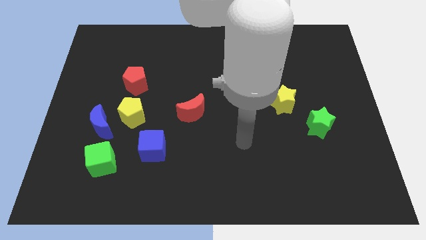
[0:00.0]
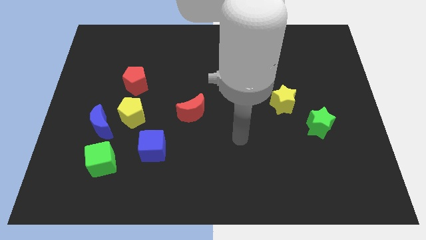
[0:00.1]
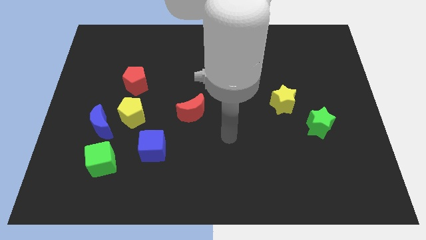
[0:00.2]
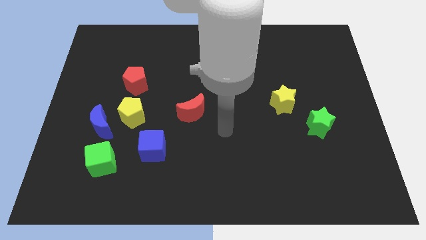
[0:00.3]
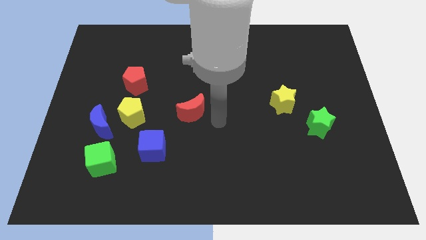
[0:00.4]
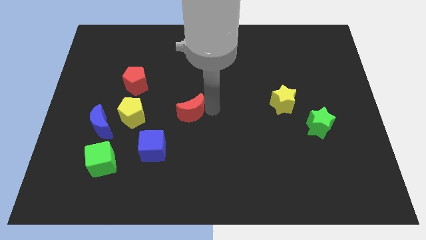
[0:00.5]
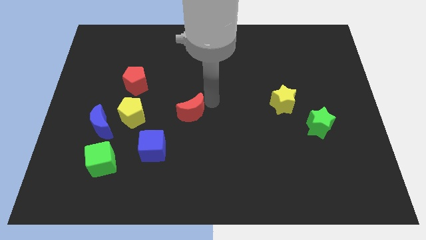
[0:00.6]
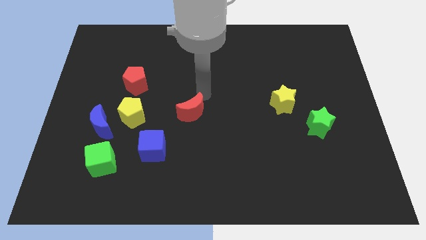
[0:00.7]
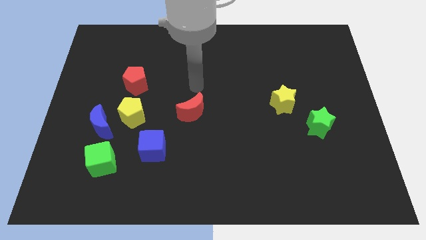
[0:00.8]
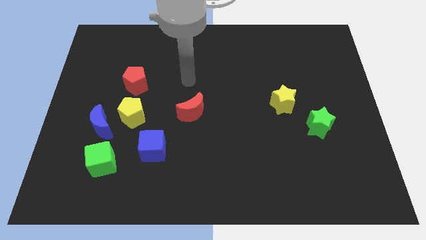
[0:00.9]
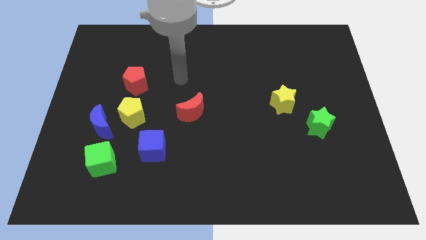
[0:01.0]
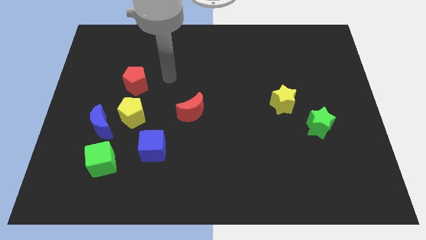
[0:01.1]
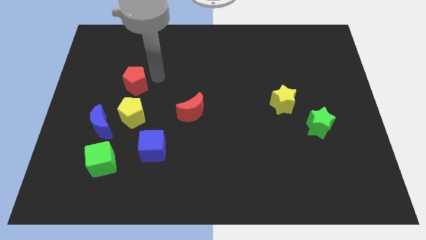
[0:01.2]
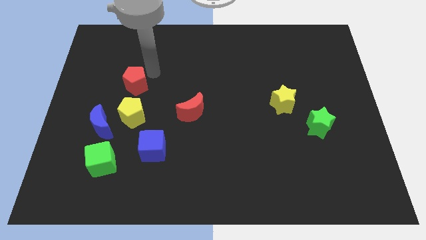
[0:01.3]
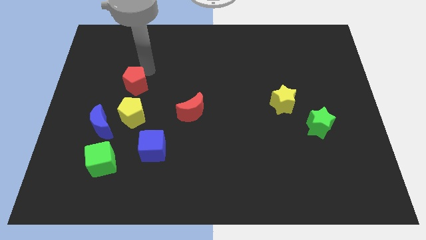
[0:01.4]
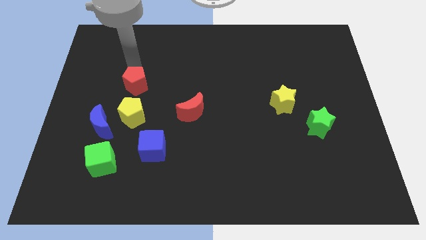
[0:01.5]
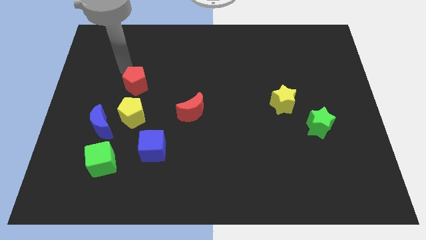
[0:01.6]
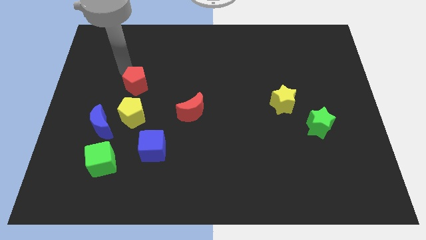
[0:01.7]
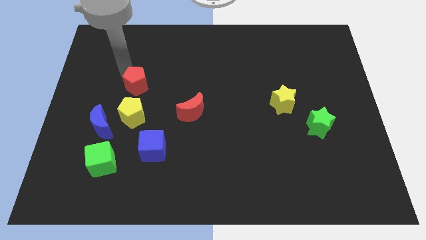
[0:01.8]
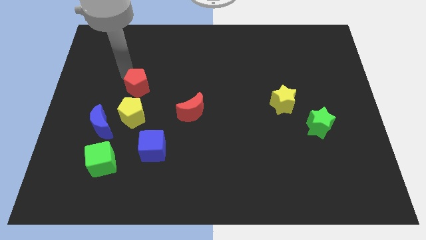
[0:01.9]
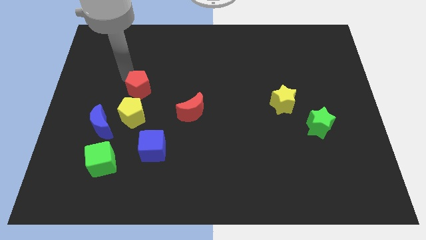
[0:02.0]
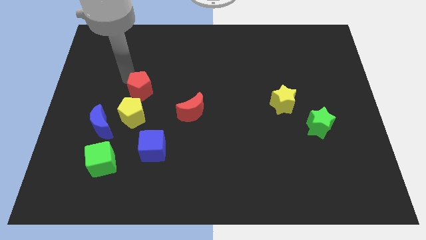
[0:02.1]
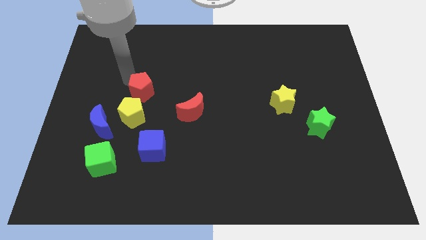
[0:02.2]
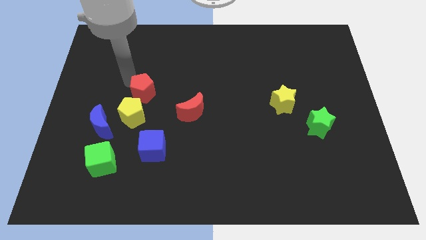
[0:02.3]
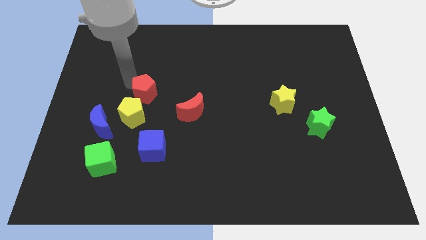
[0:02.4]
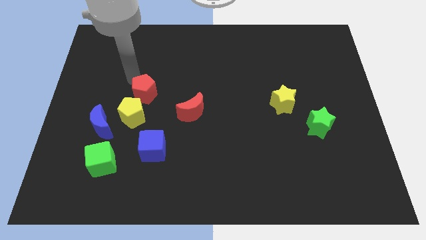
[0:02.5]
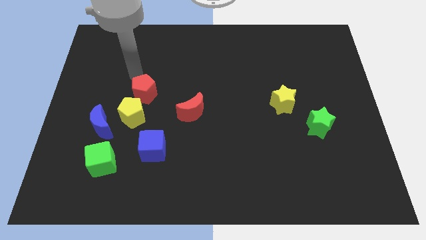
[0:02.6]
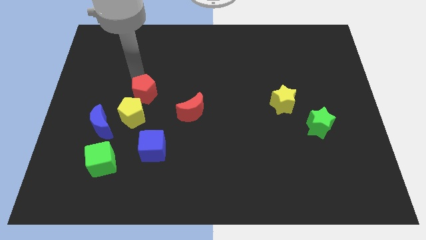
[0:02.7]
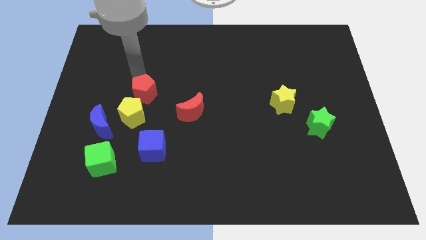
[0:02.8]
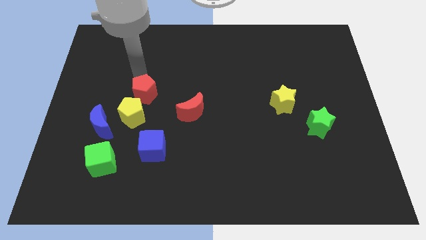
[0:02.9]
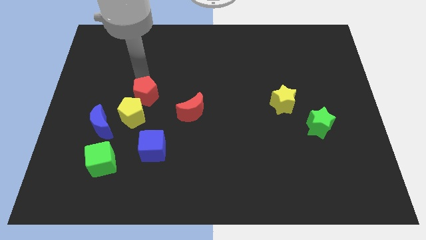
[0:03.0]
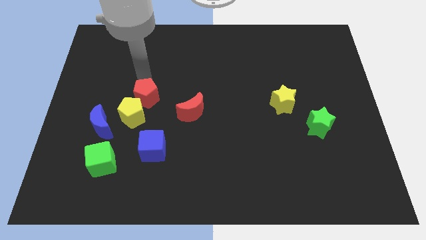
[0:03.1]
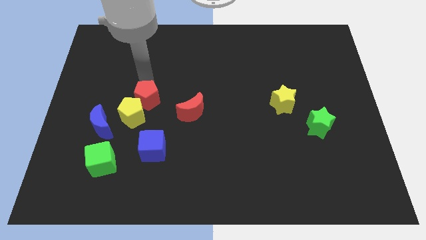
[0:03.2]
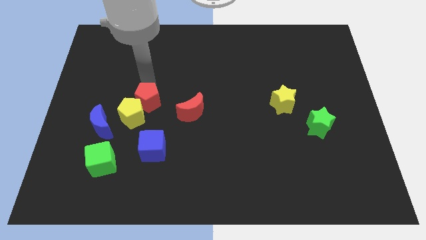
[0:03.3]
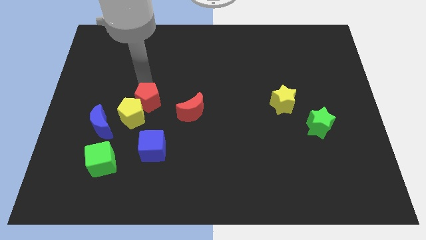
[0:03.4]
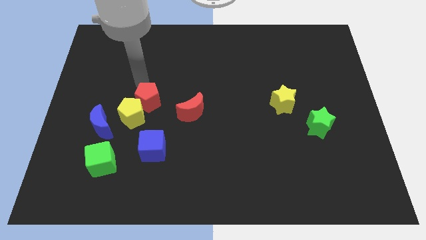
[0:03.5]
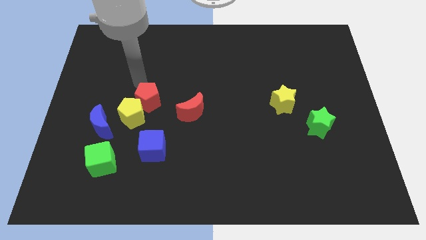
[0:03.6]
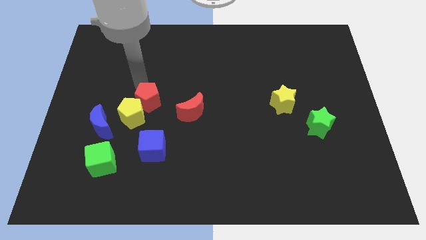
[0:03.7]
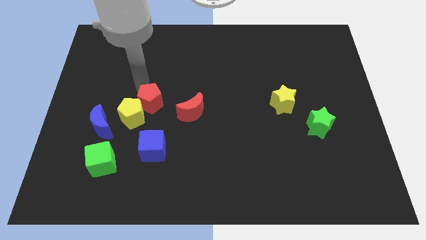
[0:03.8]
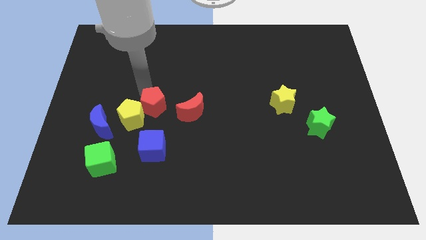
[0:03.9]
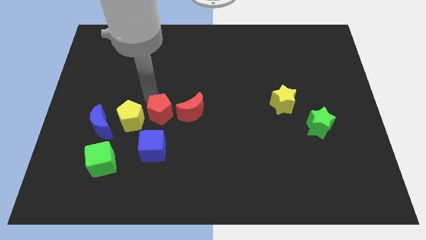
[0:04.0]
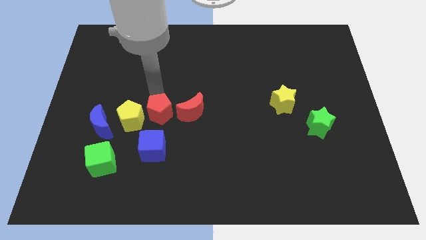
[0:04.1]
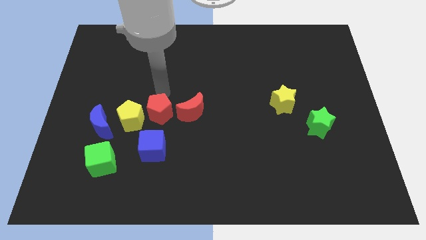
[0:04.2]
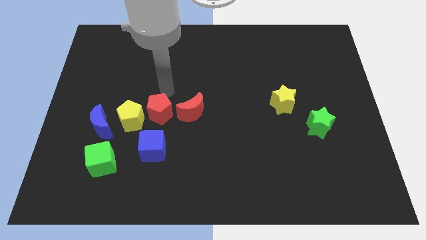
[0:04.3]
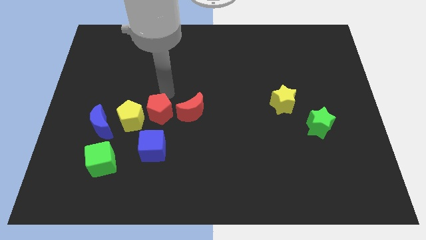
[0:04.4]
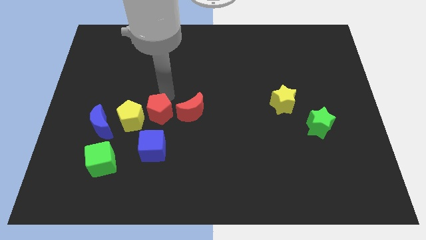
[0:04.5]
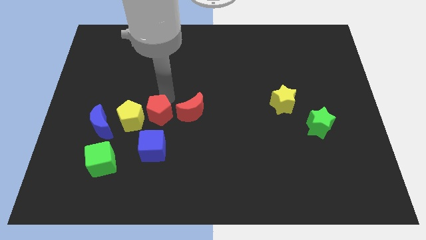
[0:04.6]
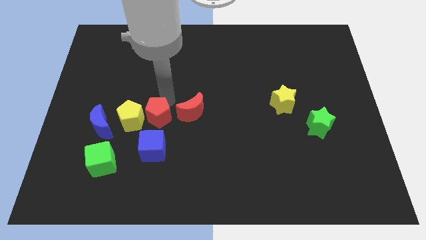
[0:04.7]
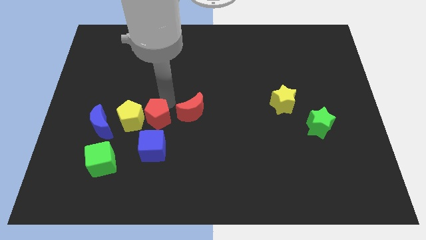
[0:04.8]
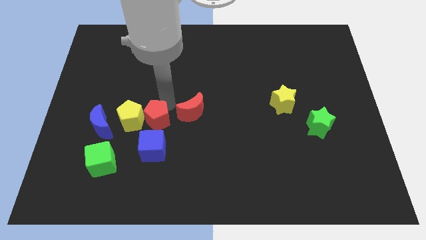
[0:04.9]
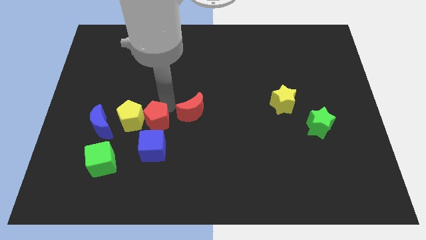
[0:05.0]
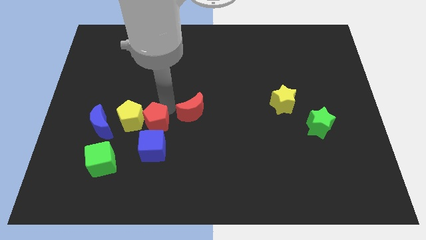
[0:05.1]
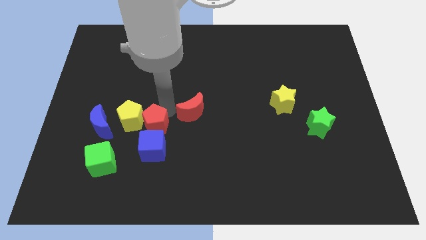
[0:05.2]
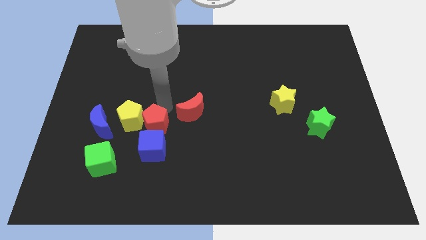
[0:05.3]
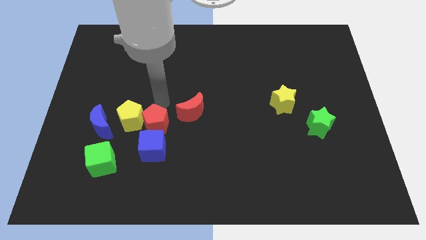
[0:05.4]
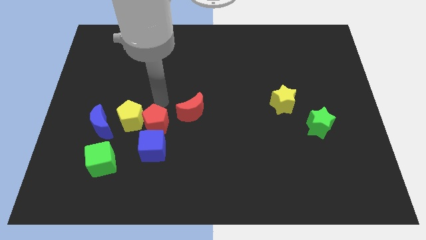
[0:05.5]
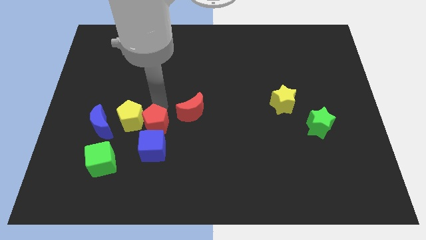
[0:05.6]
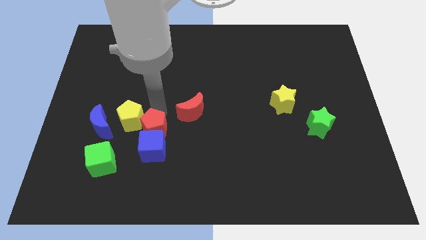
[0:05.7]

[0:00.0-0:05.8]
push the red pentagon to the blue cube

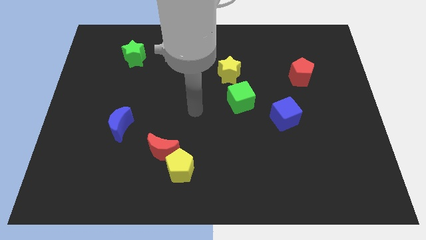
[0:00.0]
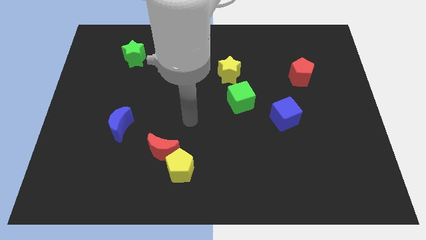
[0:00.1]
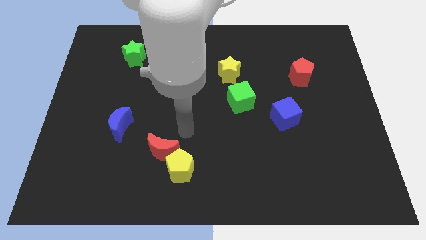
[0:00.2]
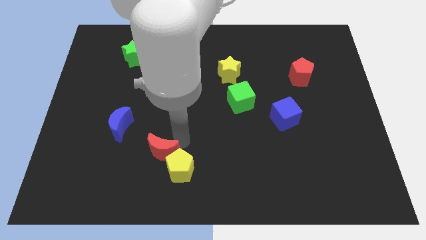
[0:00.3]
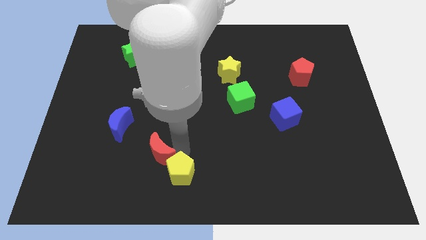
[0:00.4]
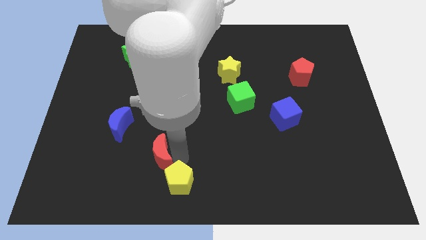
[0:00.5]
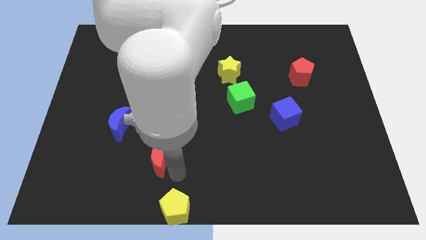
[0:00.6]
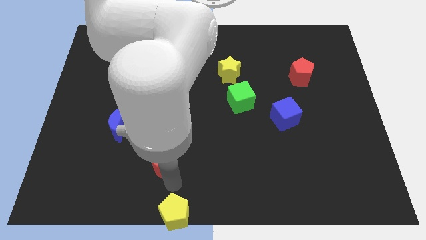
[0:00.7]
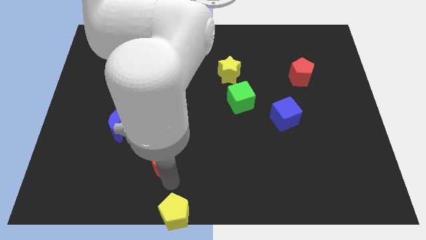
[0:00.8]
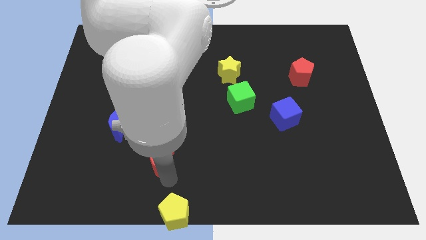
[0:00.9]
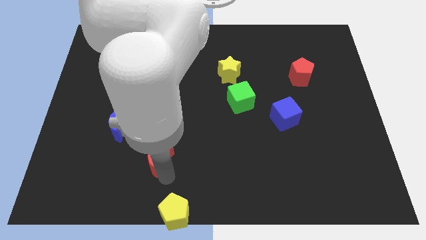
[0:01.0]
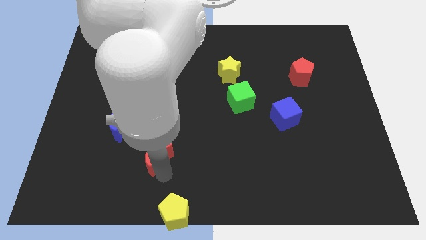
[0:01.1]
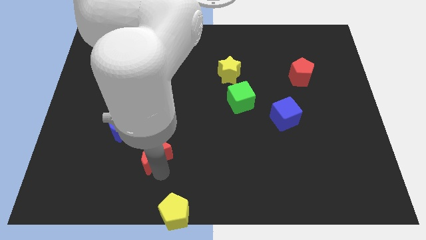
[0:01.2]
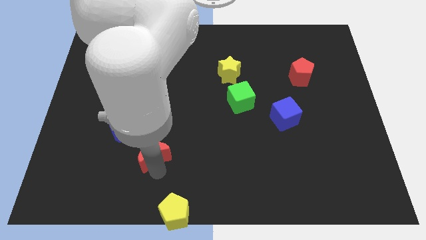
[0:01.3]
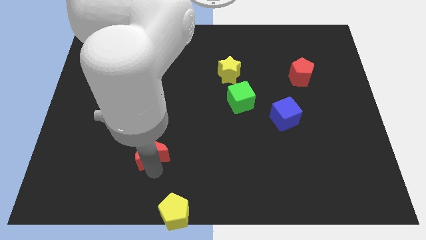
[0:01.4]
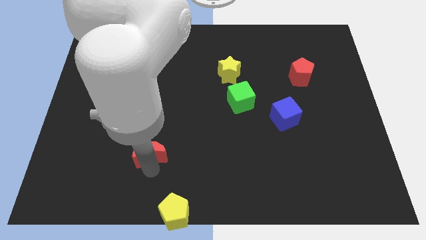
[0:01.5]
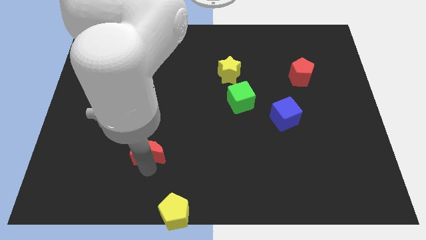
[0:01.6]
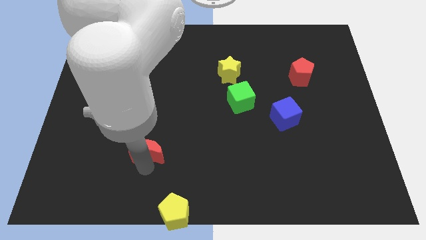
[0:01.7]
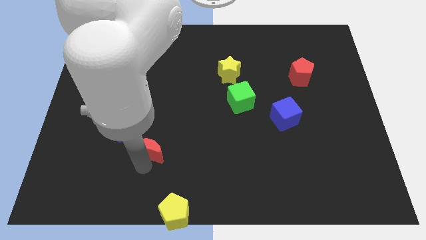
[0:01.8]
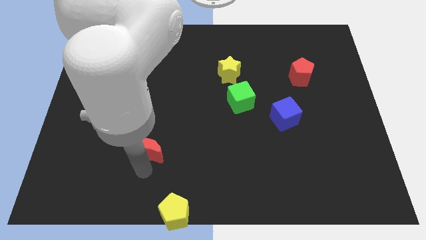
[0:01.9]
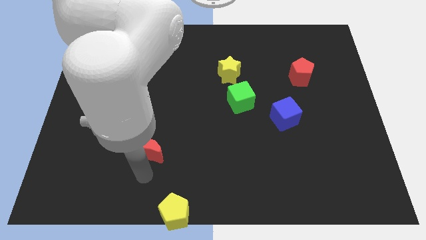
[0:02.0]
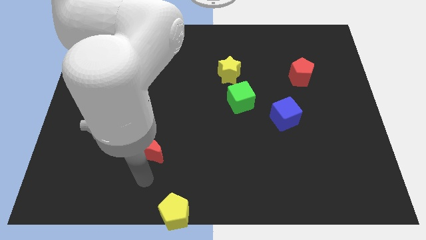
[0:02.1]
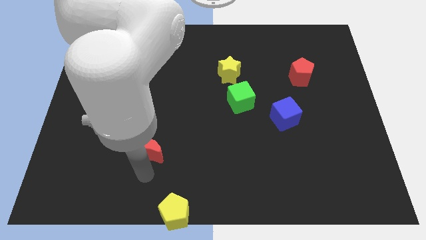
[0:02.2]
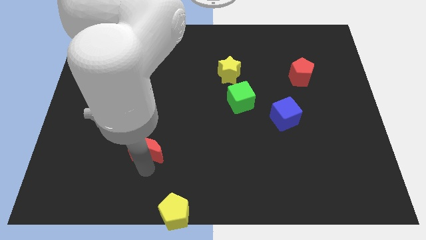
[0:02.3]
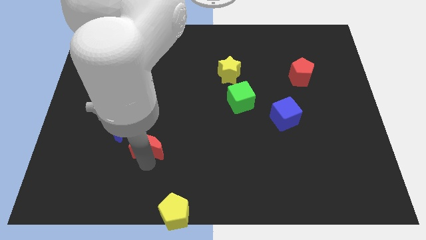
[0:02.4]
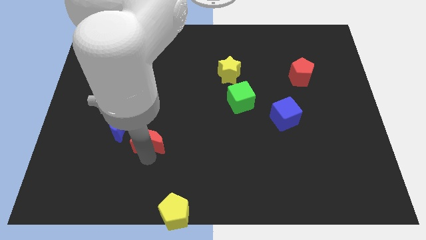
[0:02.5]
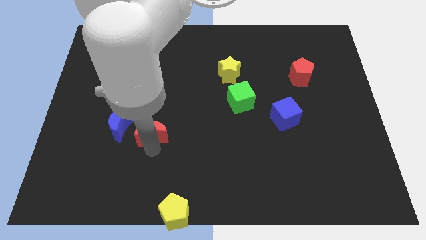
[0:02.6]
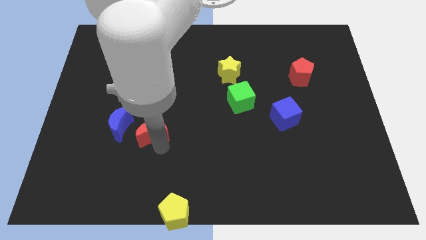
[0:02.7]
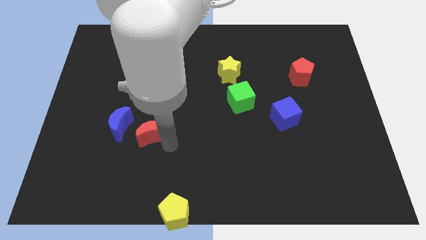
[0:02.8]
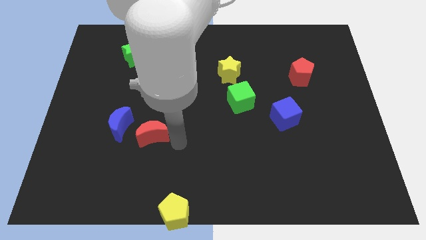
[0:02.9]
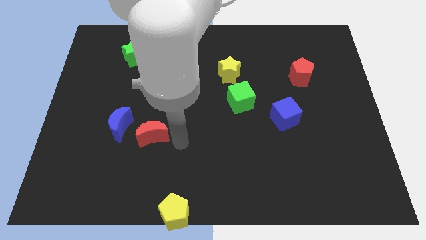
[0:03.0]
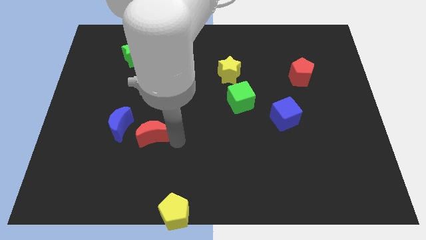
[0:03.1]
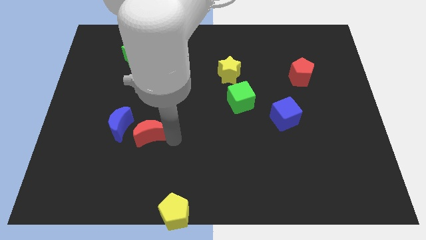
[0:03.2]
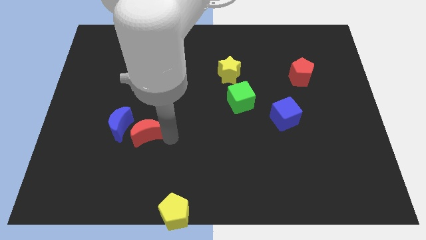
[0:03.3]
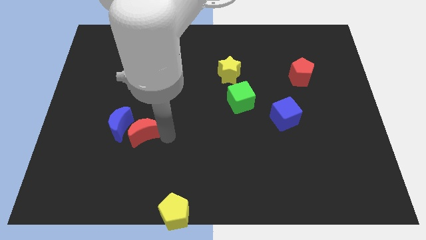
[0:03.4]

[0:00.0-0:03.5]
slide the red moon towards the blue moon
